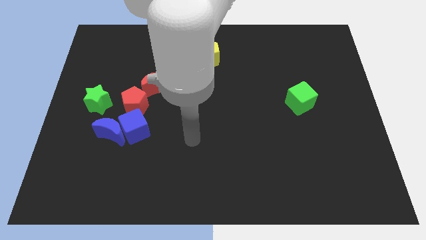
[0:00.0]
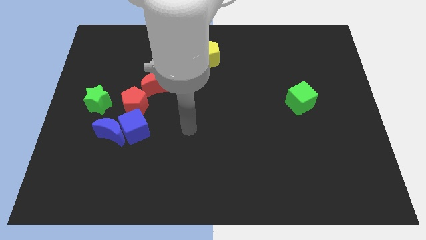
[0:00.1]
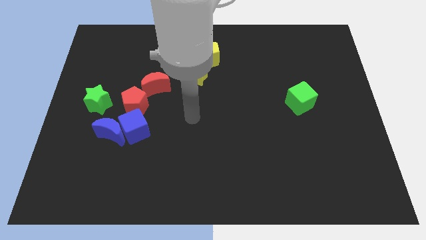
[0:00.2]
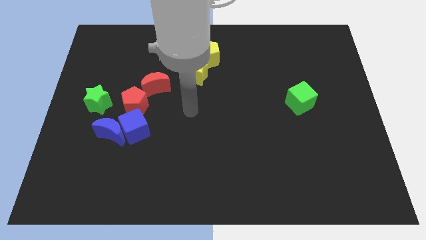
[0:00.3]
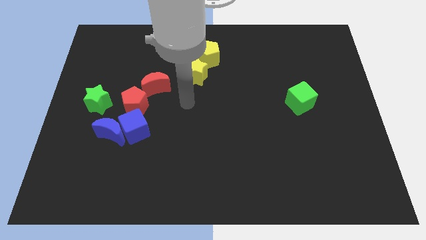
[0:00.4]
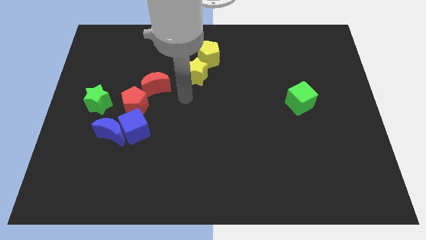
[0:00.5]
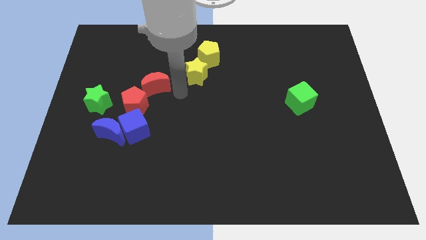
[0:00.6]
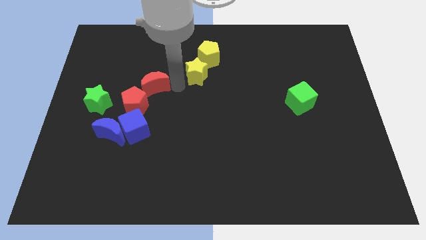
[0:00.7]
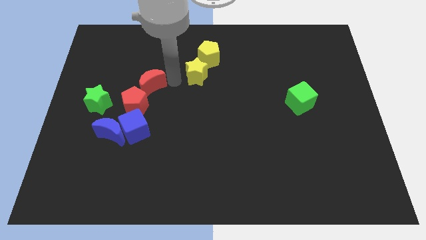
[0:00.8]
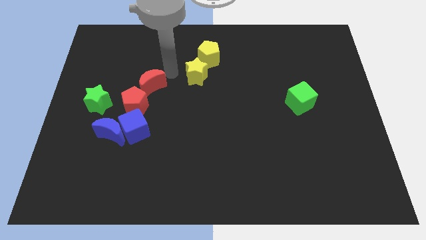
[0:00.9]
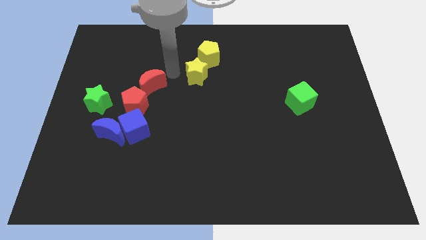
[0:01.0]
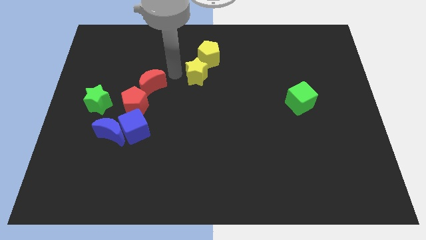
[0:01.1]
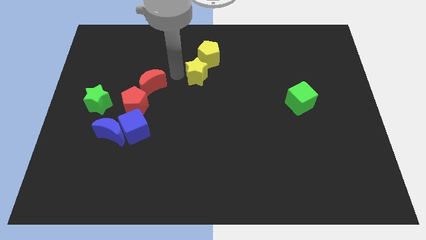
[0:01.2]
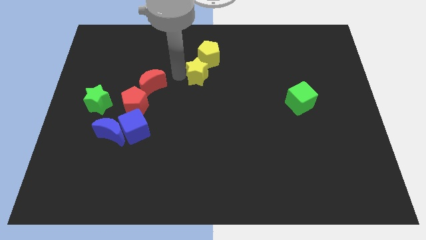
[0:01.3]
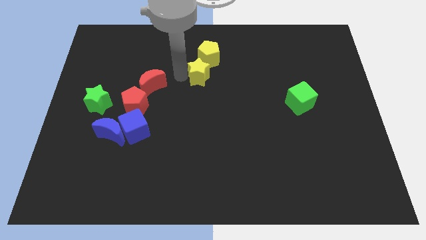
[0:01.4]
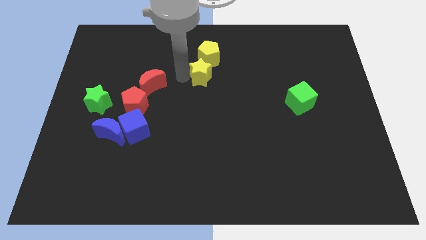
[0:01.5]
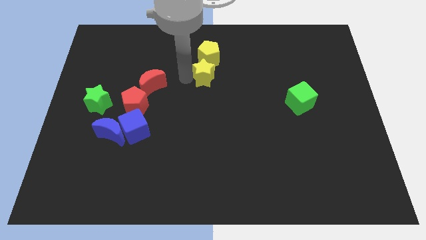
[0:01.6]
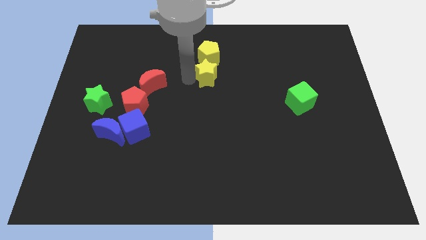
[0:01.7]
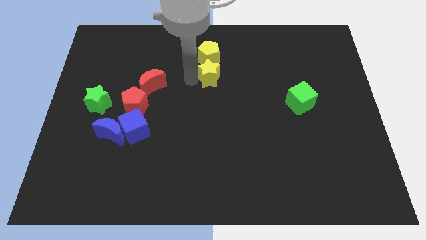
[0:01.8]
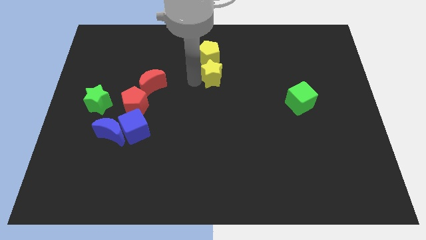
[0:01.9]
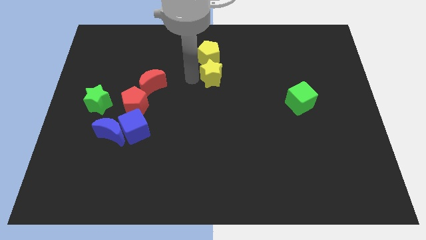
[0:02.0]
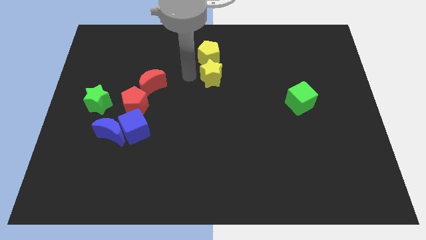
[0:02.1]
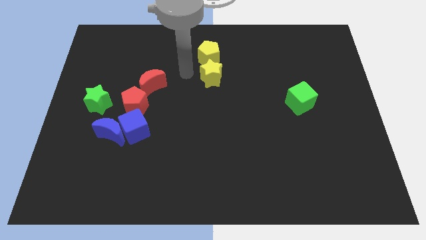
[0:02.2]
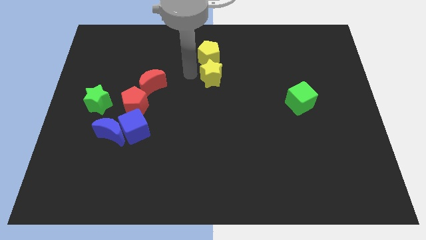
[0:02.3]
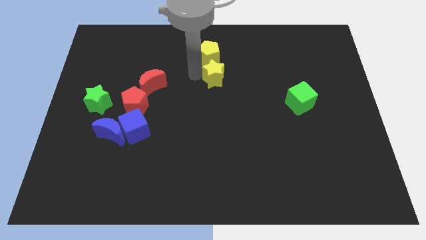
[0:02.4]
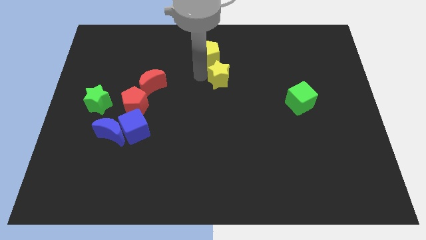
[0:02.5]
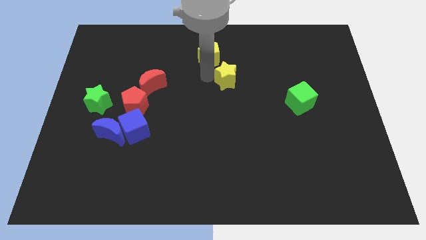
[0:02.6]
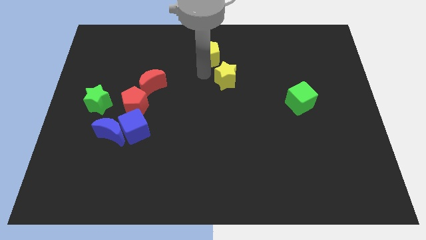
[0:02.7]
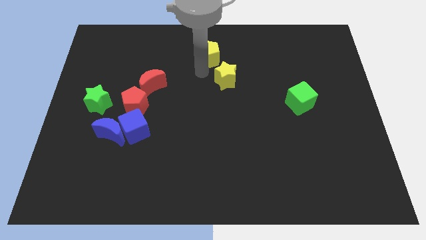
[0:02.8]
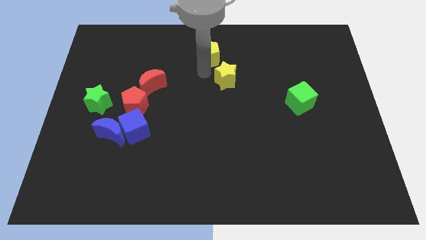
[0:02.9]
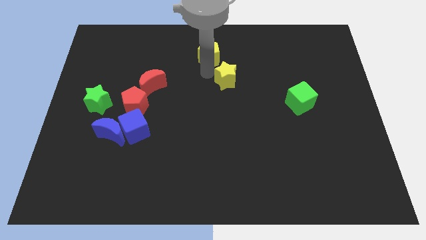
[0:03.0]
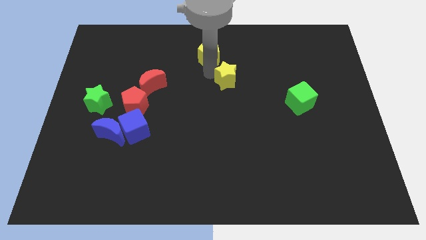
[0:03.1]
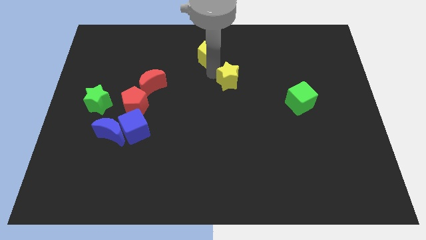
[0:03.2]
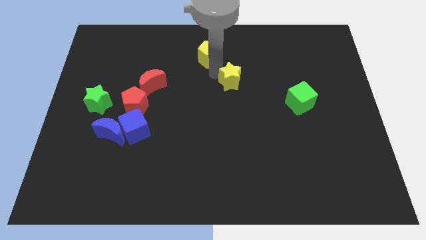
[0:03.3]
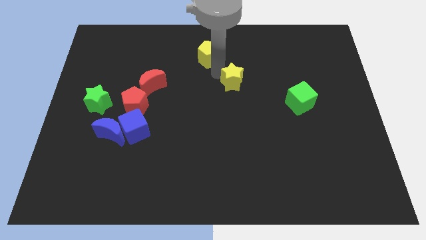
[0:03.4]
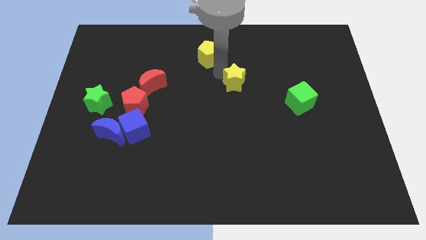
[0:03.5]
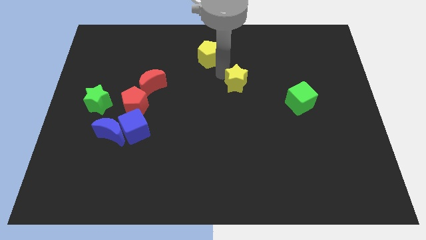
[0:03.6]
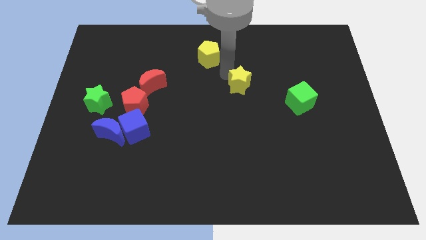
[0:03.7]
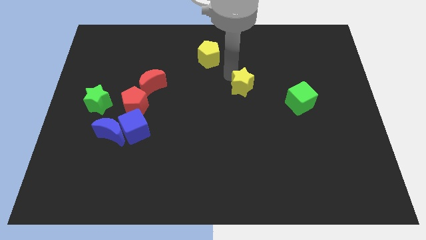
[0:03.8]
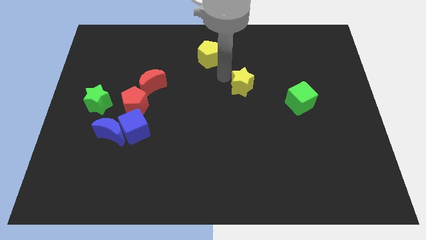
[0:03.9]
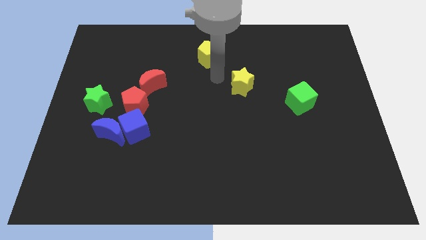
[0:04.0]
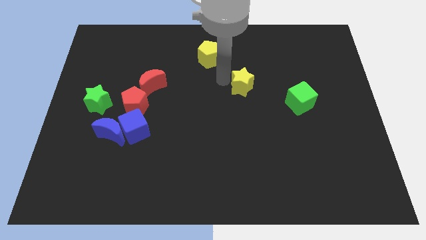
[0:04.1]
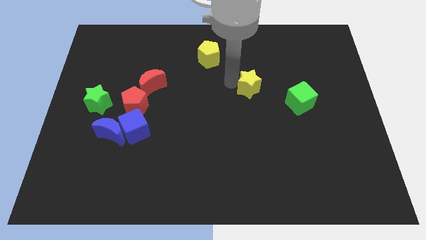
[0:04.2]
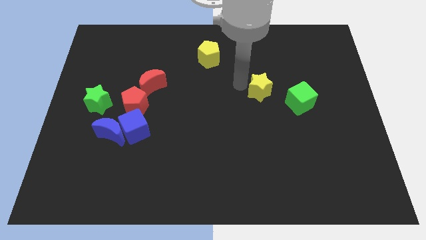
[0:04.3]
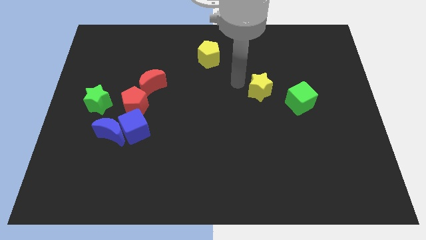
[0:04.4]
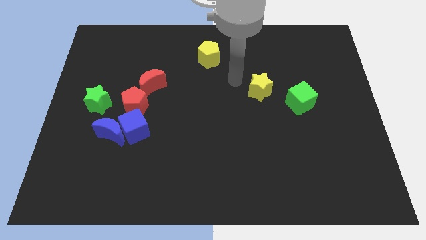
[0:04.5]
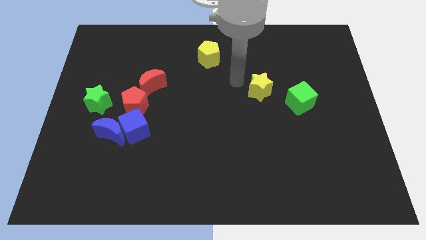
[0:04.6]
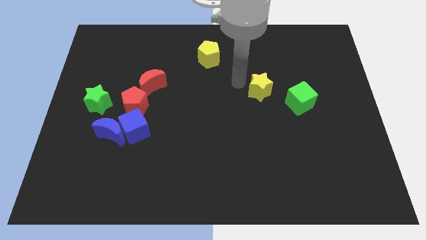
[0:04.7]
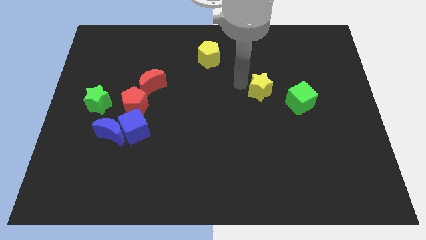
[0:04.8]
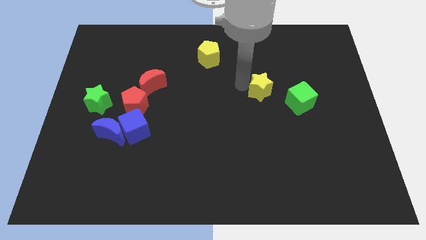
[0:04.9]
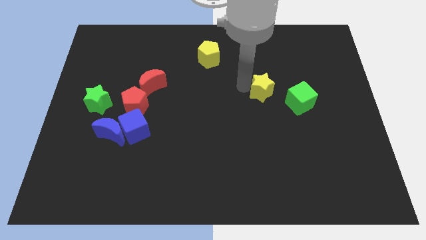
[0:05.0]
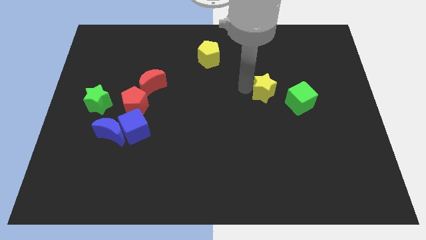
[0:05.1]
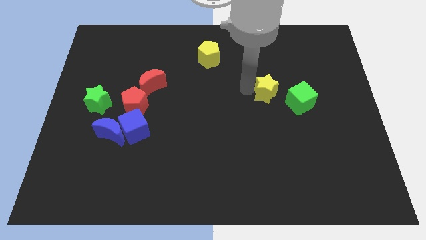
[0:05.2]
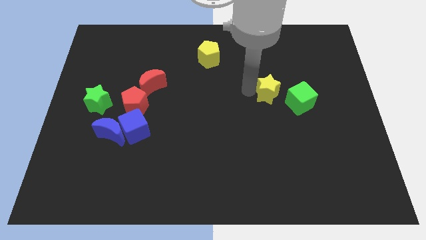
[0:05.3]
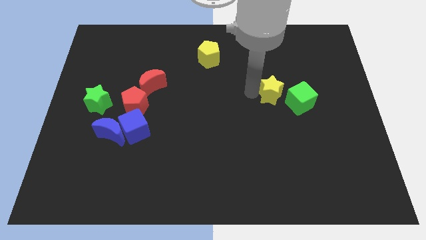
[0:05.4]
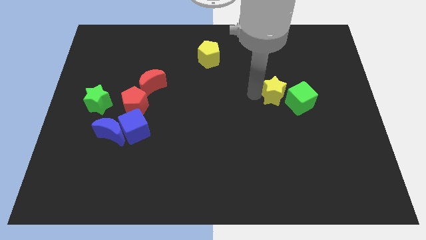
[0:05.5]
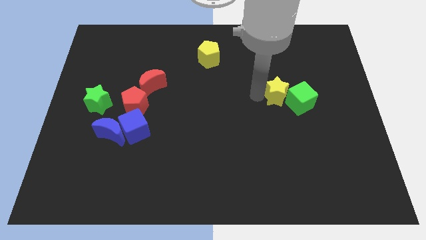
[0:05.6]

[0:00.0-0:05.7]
push the yellow star to the green cube

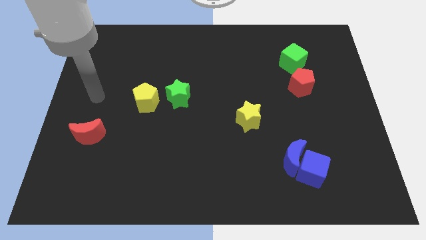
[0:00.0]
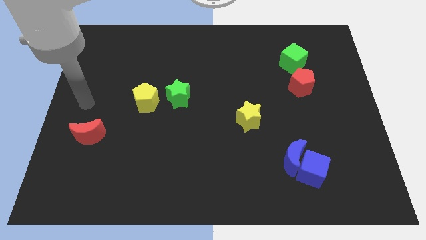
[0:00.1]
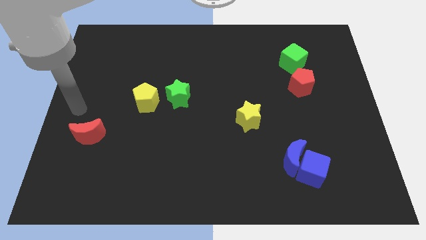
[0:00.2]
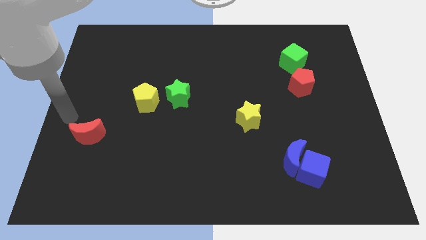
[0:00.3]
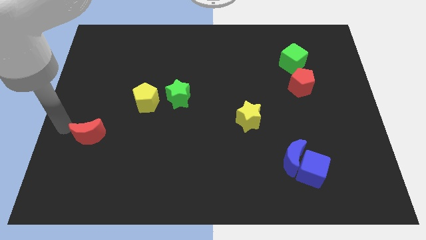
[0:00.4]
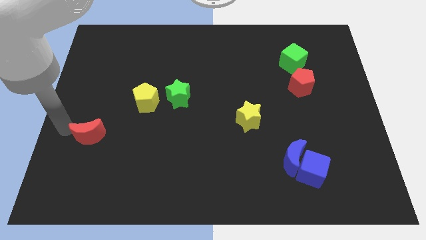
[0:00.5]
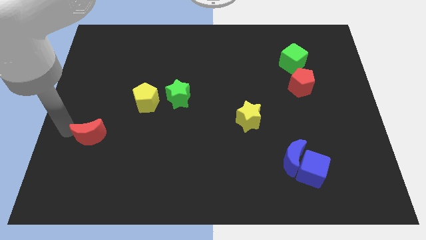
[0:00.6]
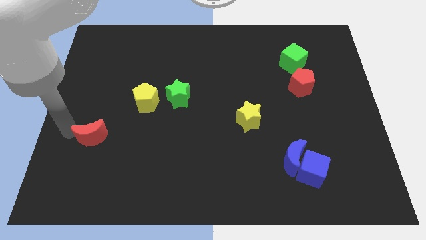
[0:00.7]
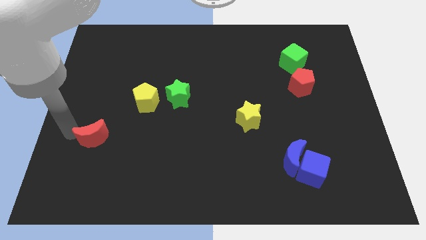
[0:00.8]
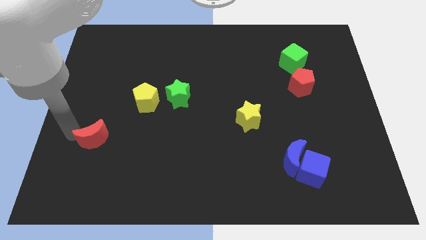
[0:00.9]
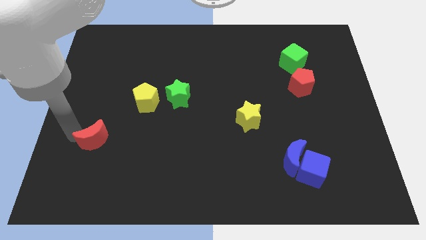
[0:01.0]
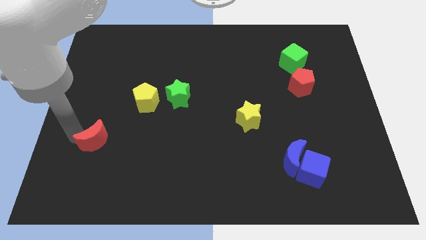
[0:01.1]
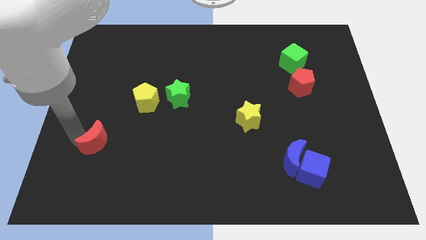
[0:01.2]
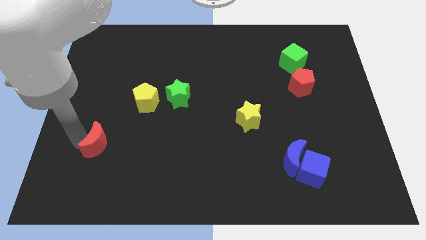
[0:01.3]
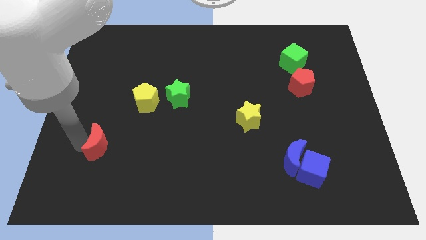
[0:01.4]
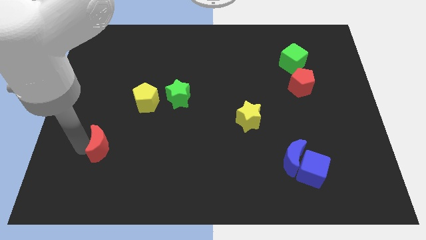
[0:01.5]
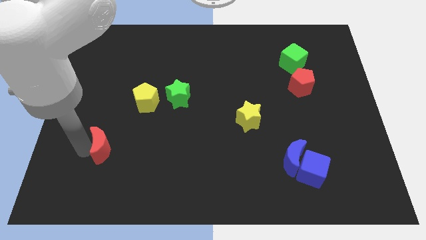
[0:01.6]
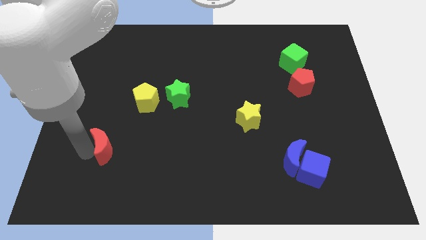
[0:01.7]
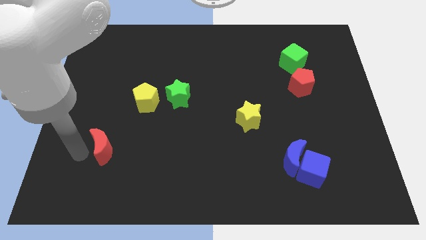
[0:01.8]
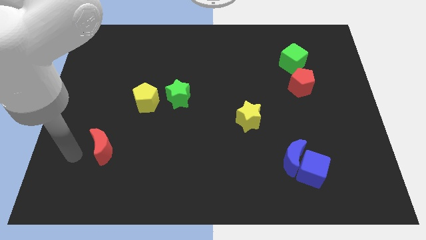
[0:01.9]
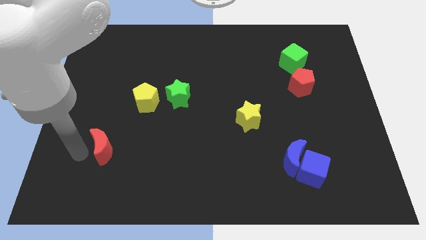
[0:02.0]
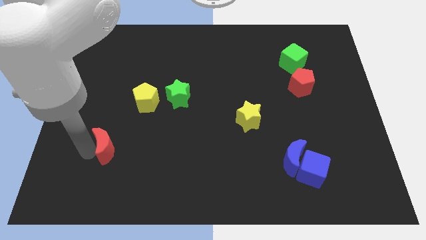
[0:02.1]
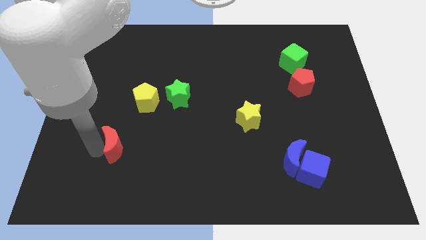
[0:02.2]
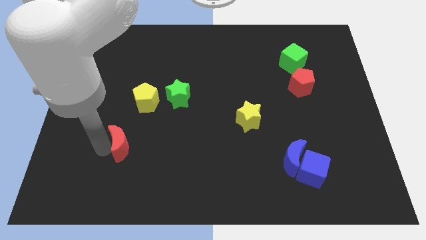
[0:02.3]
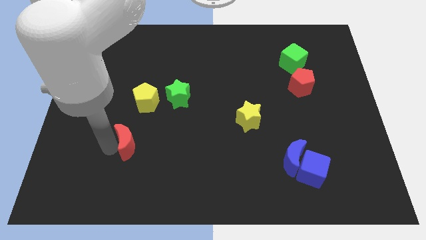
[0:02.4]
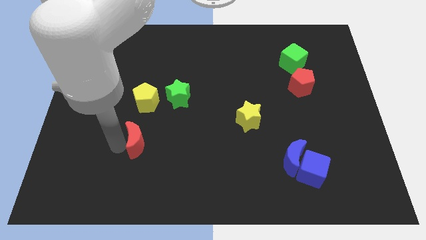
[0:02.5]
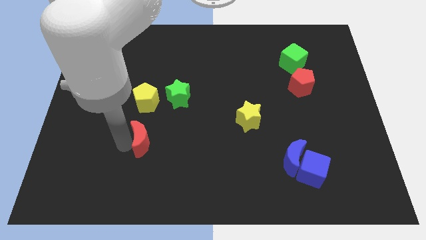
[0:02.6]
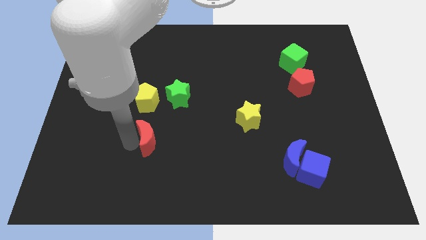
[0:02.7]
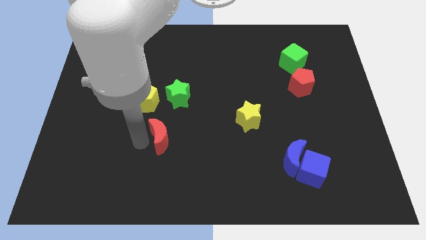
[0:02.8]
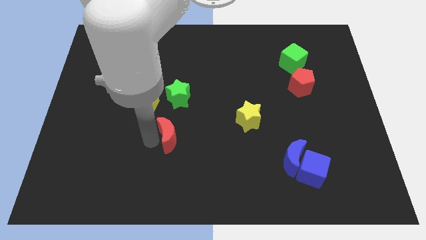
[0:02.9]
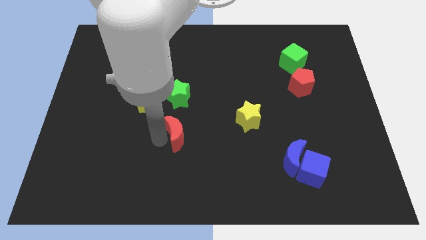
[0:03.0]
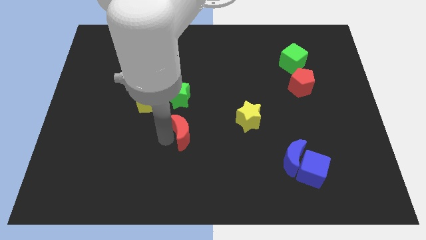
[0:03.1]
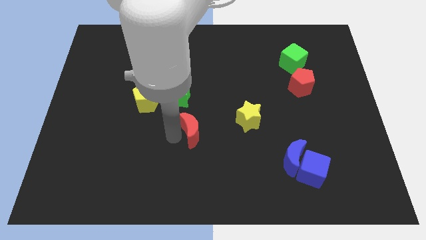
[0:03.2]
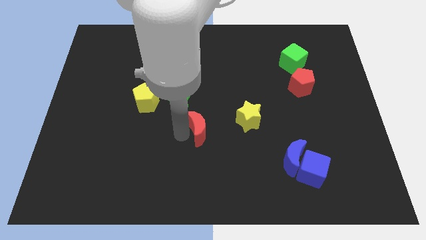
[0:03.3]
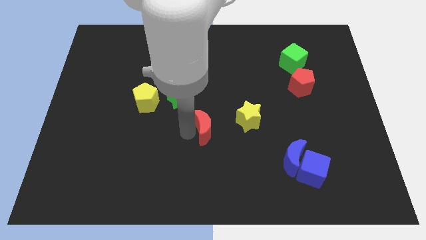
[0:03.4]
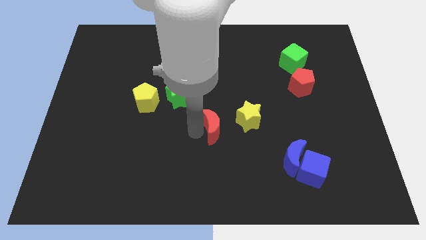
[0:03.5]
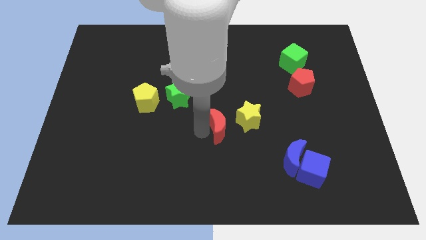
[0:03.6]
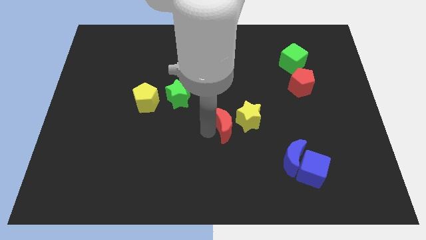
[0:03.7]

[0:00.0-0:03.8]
put the red moon to the yellow star
